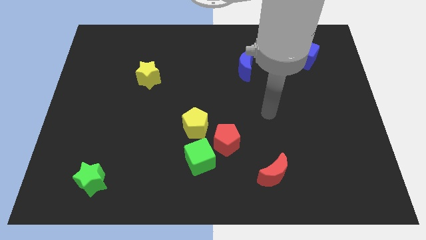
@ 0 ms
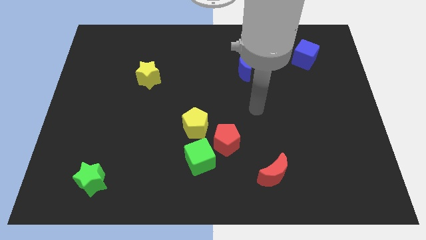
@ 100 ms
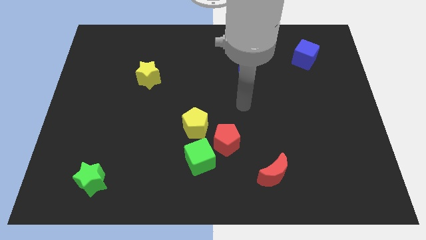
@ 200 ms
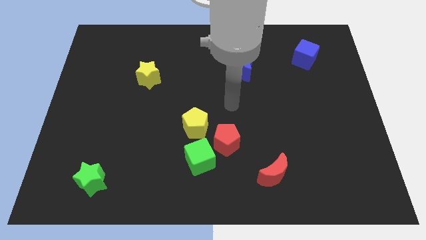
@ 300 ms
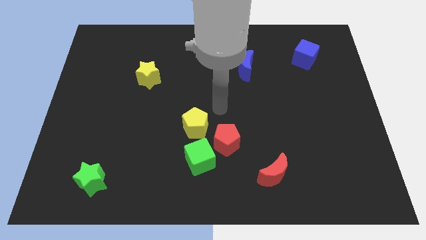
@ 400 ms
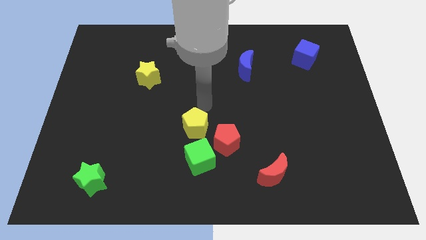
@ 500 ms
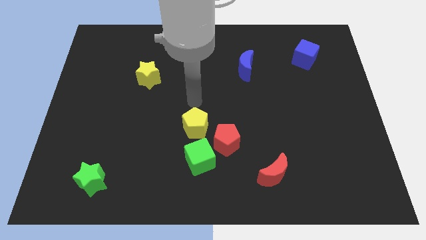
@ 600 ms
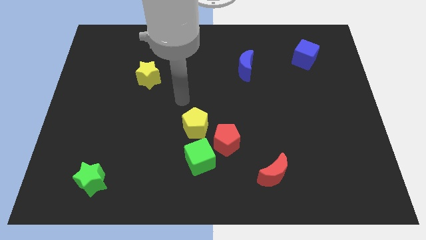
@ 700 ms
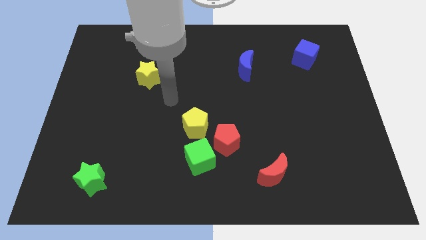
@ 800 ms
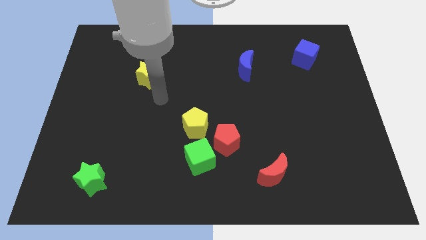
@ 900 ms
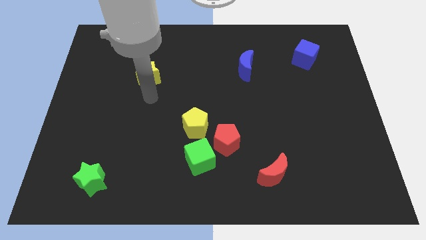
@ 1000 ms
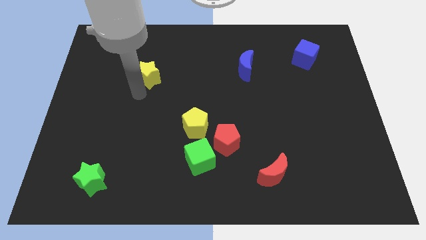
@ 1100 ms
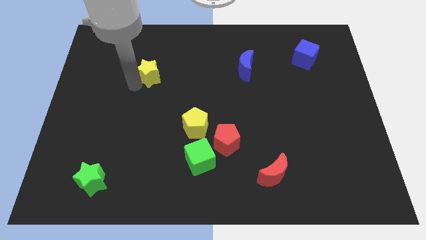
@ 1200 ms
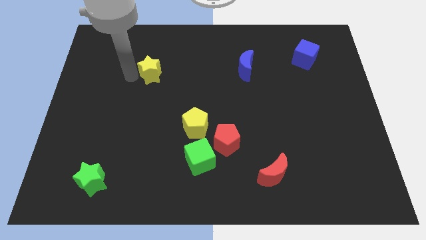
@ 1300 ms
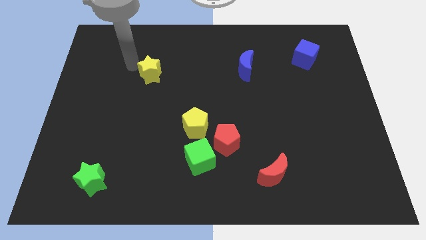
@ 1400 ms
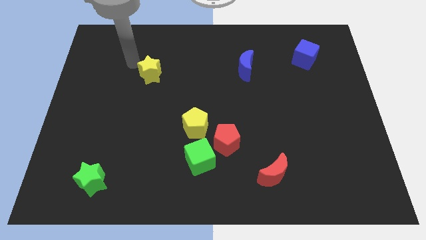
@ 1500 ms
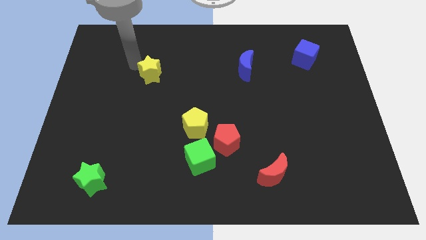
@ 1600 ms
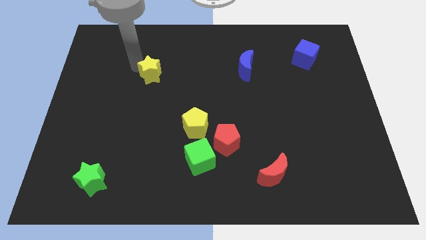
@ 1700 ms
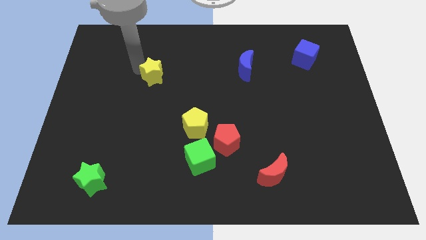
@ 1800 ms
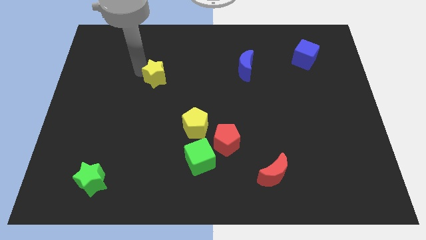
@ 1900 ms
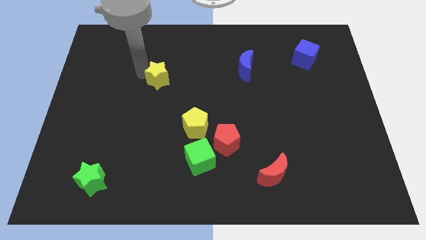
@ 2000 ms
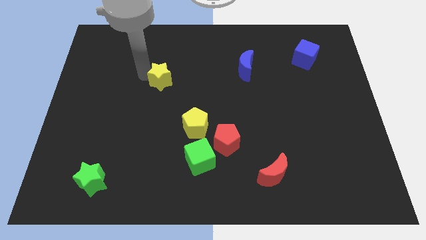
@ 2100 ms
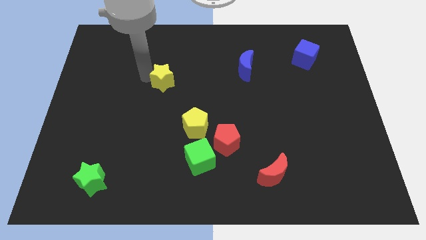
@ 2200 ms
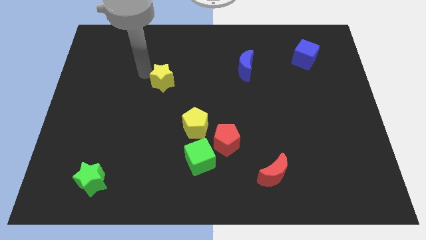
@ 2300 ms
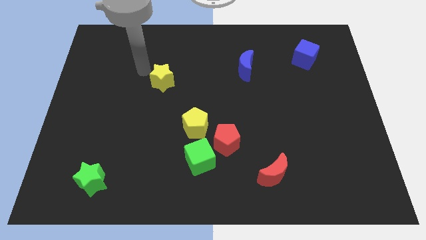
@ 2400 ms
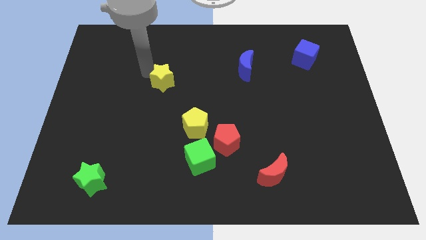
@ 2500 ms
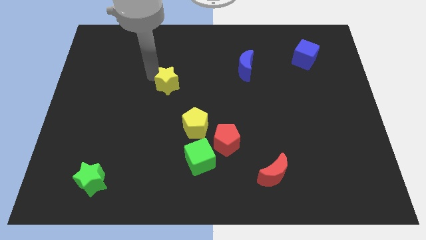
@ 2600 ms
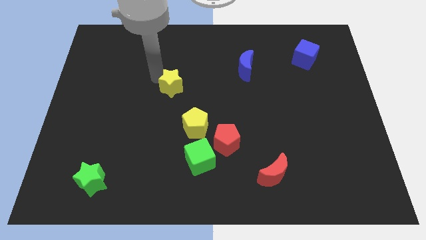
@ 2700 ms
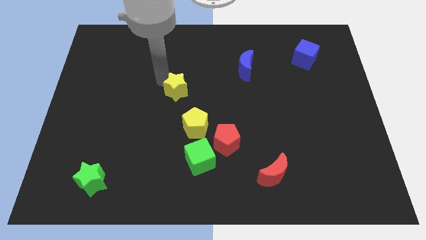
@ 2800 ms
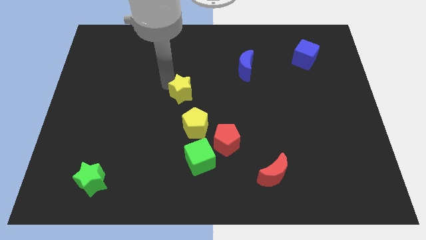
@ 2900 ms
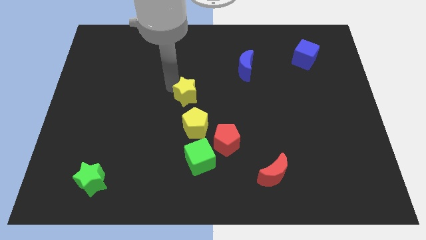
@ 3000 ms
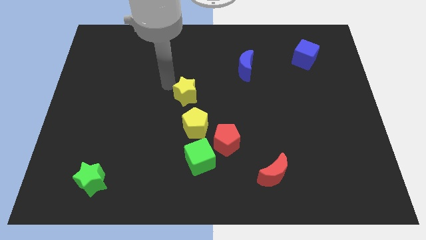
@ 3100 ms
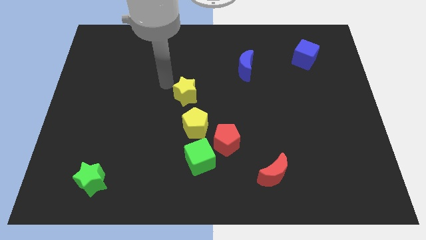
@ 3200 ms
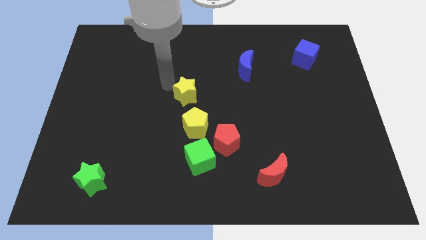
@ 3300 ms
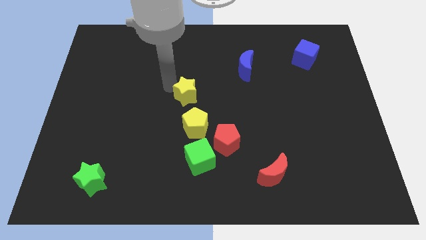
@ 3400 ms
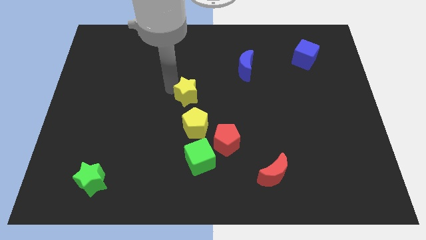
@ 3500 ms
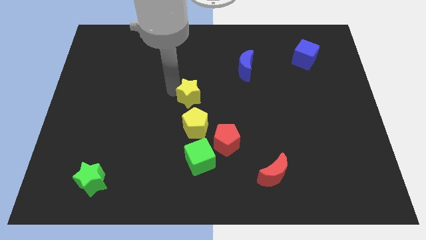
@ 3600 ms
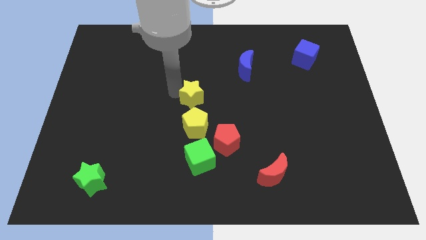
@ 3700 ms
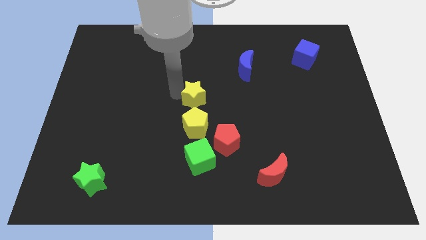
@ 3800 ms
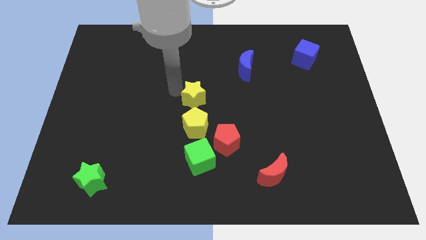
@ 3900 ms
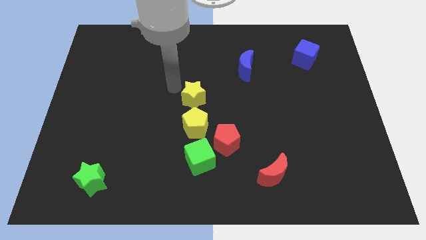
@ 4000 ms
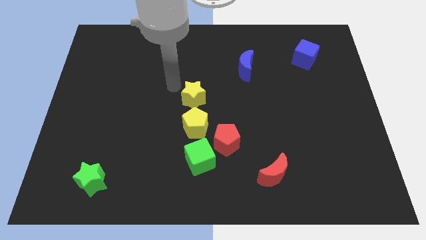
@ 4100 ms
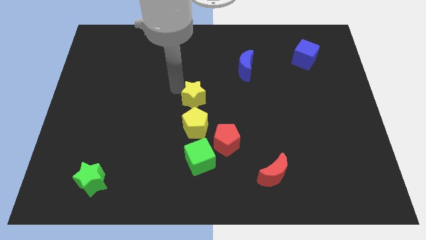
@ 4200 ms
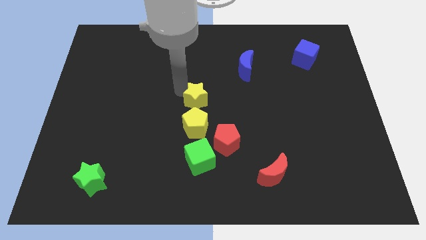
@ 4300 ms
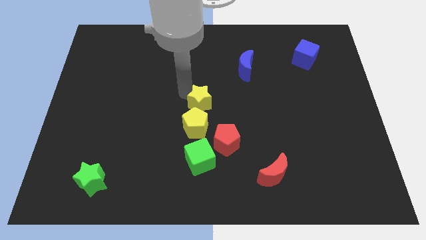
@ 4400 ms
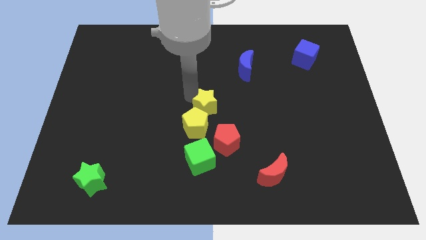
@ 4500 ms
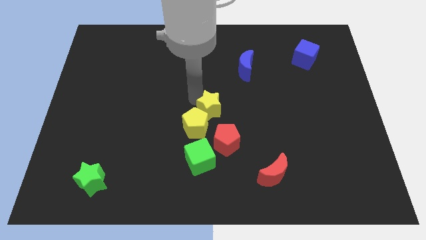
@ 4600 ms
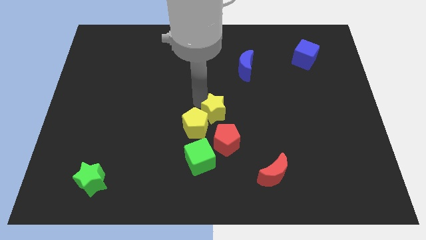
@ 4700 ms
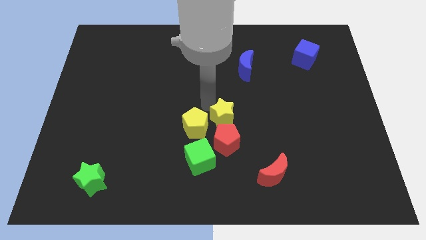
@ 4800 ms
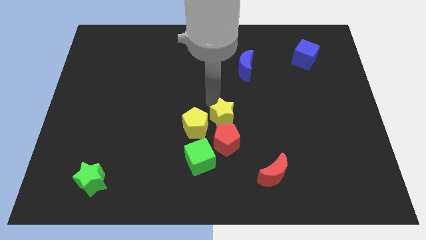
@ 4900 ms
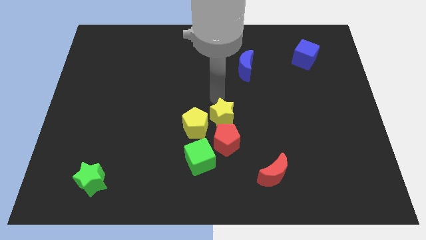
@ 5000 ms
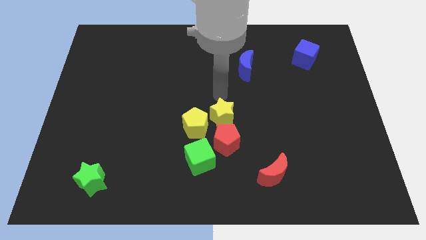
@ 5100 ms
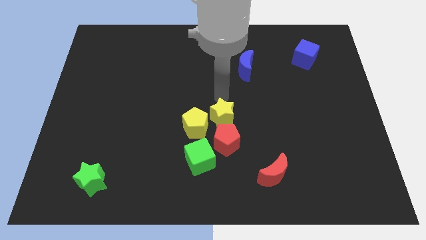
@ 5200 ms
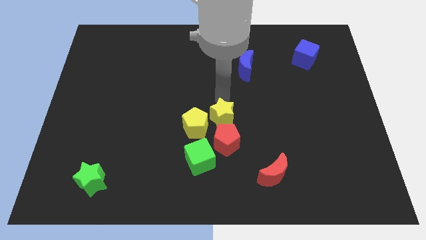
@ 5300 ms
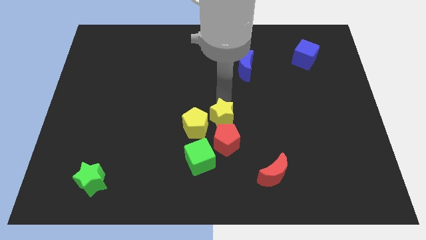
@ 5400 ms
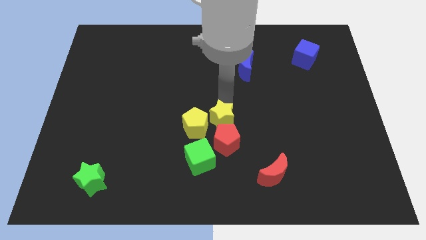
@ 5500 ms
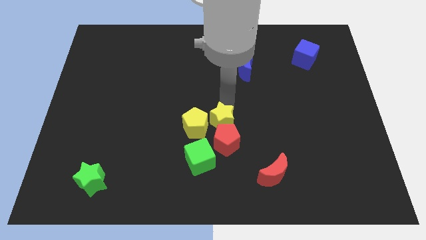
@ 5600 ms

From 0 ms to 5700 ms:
move the yellow star towards the red pentagon
